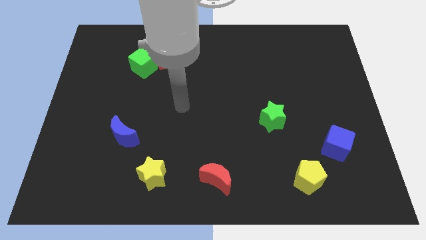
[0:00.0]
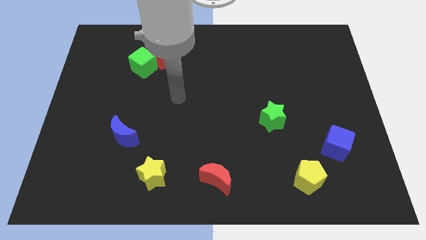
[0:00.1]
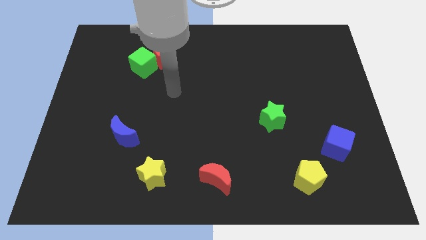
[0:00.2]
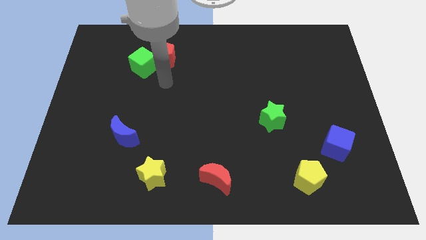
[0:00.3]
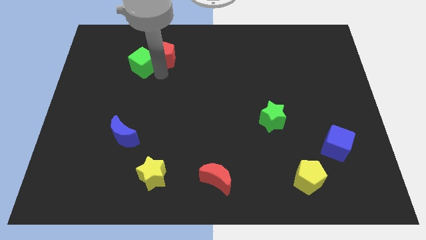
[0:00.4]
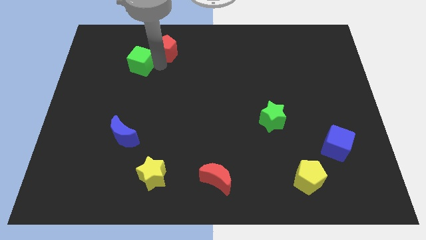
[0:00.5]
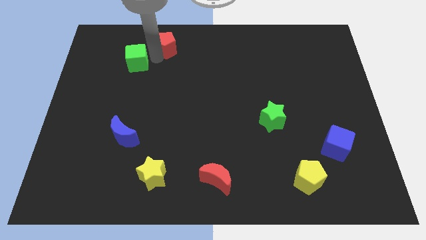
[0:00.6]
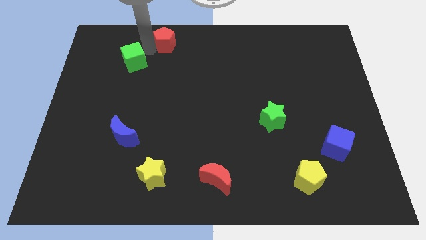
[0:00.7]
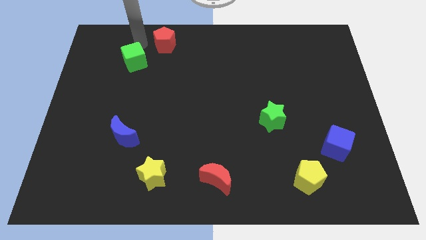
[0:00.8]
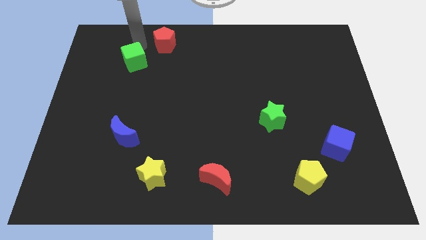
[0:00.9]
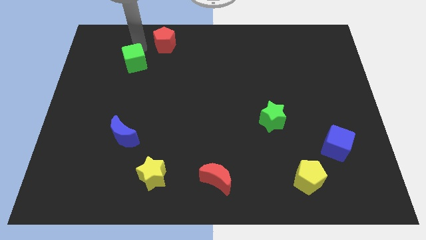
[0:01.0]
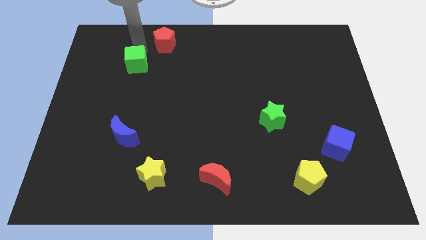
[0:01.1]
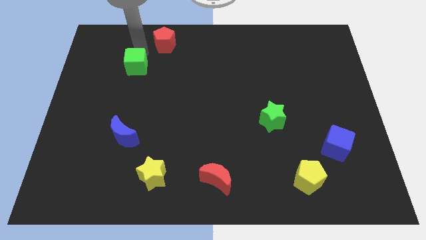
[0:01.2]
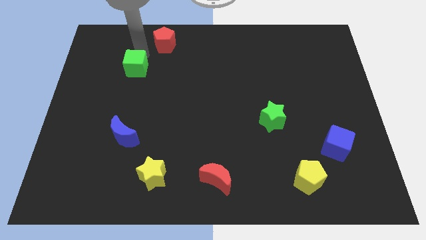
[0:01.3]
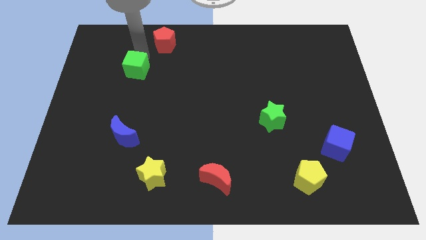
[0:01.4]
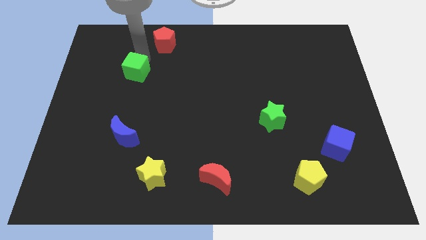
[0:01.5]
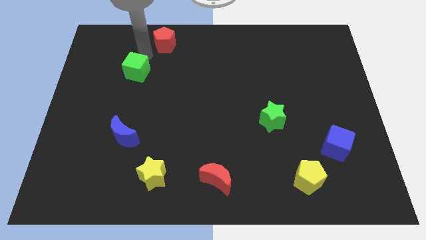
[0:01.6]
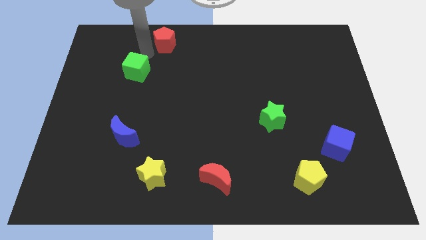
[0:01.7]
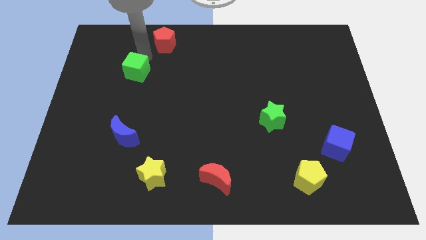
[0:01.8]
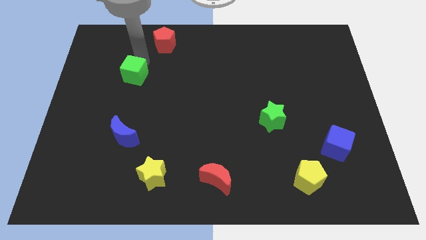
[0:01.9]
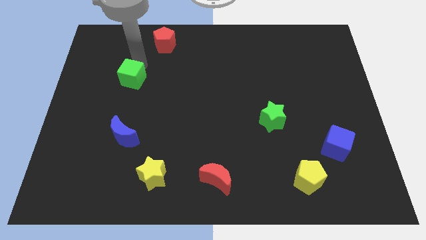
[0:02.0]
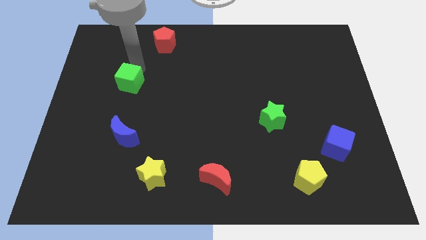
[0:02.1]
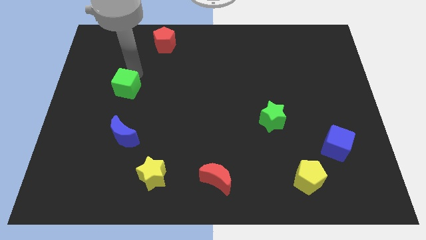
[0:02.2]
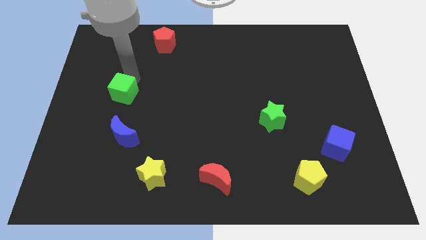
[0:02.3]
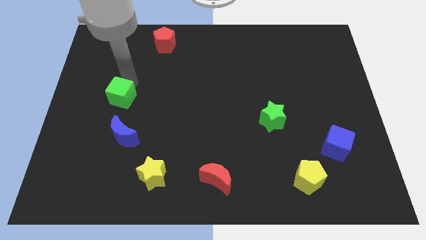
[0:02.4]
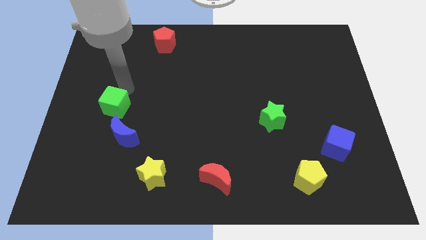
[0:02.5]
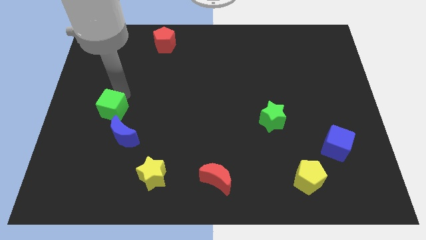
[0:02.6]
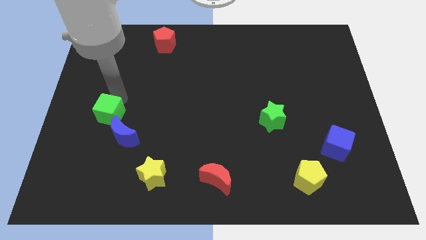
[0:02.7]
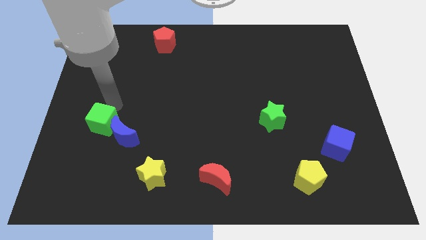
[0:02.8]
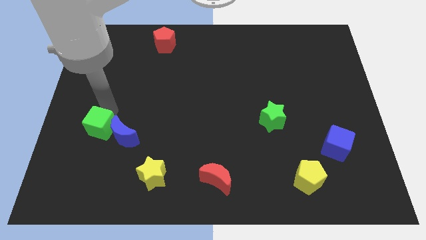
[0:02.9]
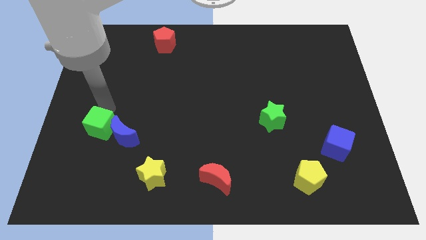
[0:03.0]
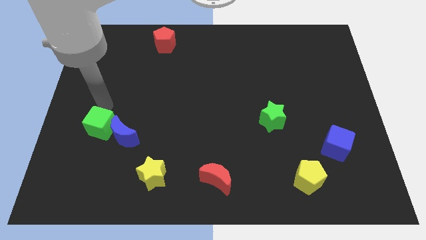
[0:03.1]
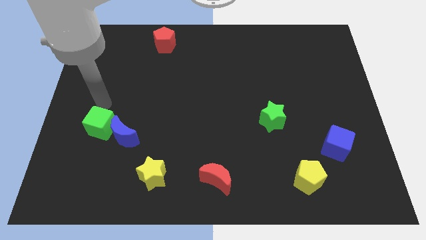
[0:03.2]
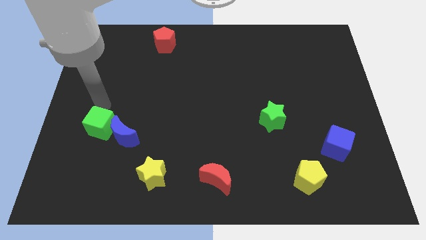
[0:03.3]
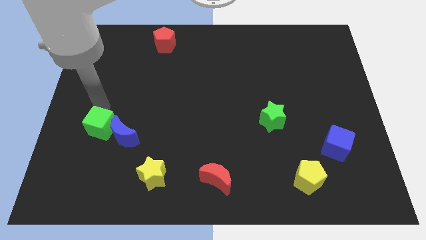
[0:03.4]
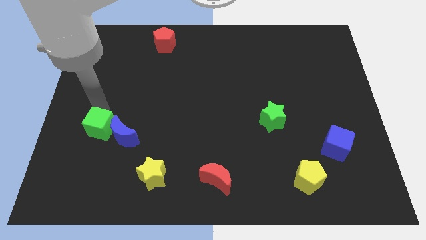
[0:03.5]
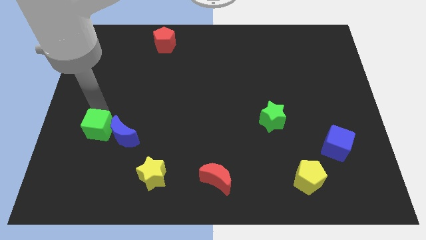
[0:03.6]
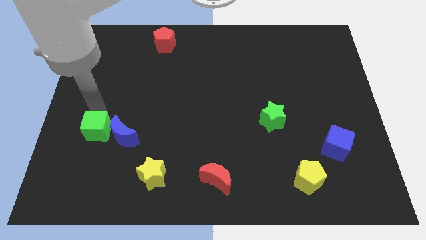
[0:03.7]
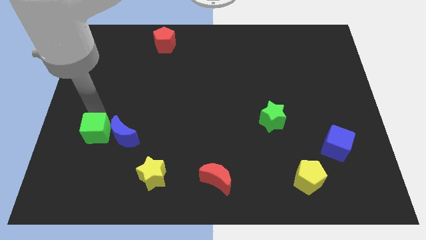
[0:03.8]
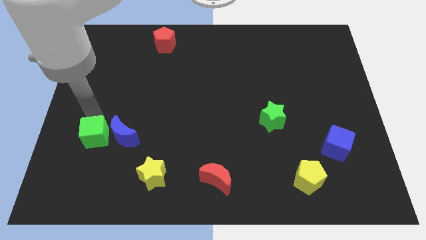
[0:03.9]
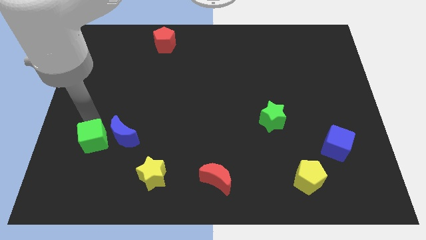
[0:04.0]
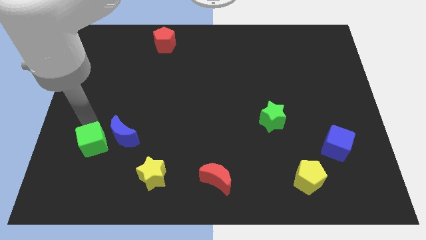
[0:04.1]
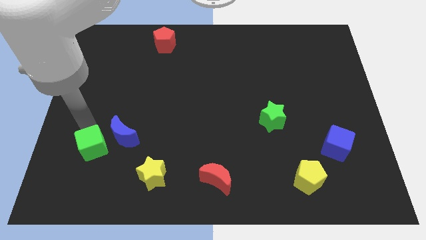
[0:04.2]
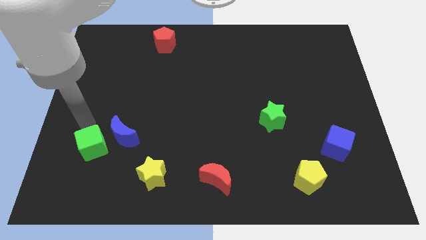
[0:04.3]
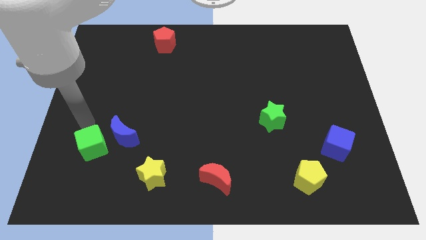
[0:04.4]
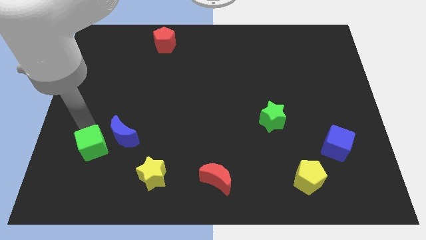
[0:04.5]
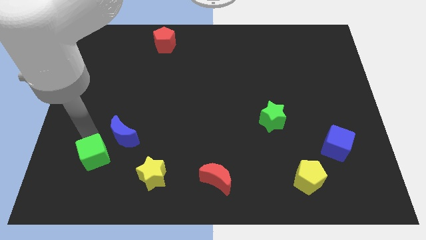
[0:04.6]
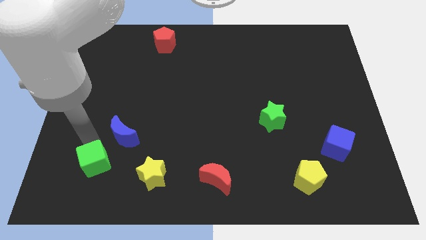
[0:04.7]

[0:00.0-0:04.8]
slide the green cube to the left of the yellow star

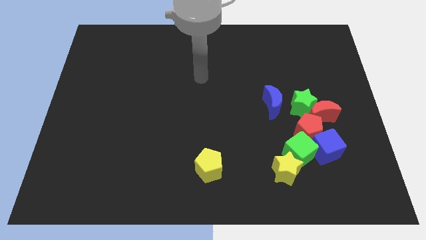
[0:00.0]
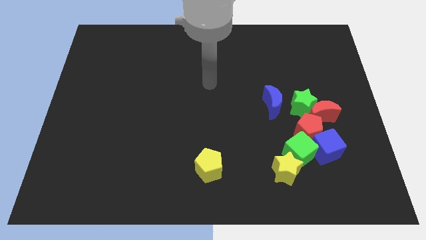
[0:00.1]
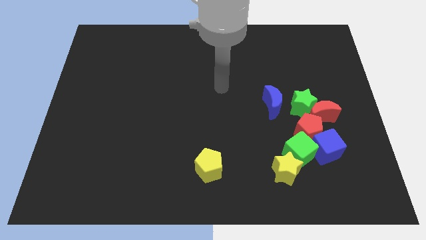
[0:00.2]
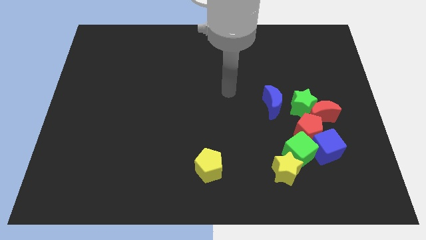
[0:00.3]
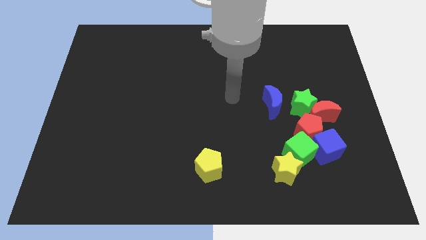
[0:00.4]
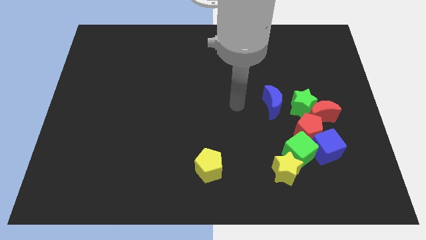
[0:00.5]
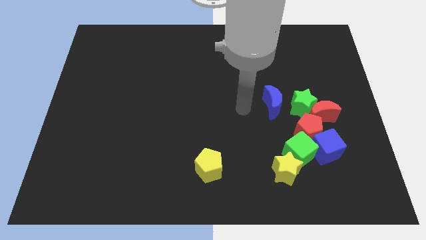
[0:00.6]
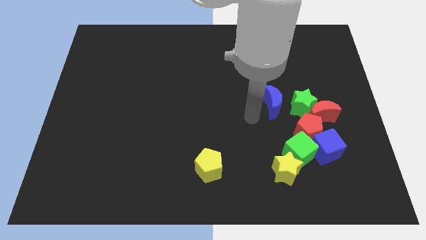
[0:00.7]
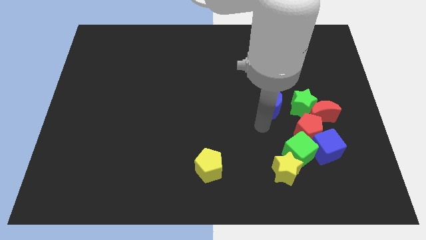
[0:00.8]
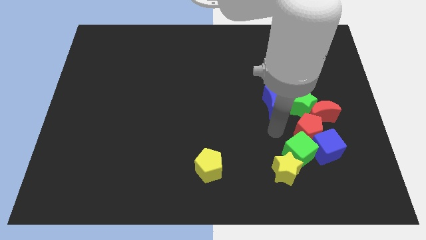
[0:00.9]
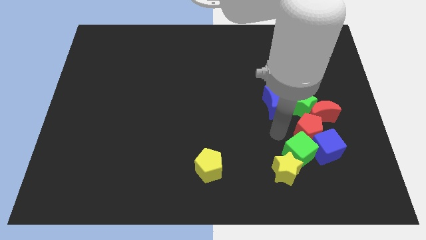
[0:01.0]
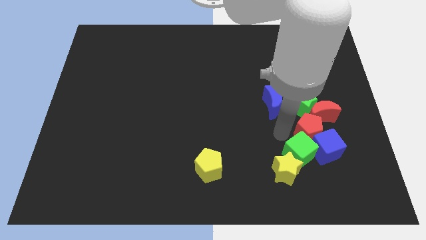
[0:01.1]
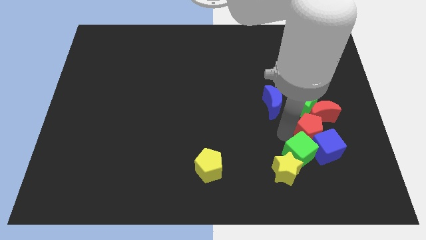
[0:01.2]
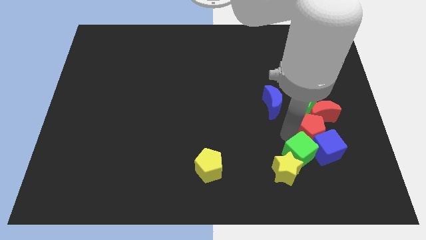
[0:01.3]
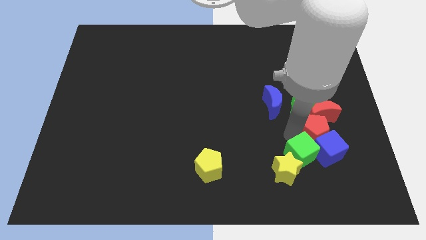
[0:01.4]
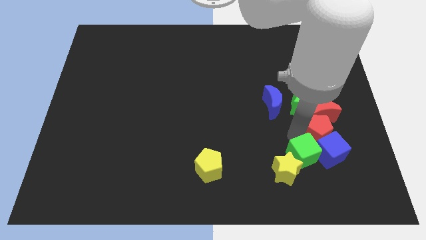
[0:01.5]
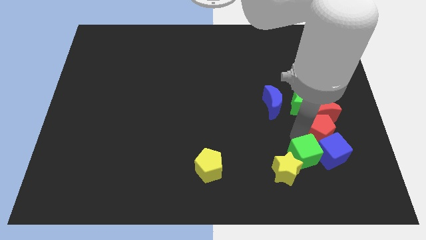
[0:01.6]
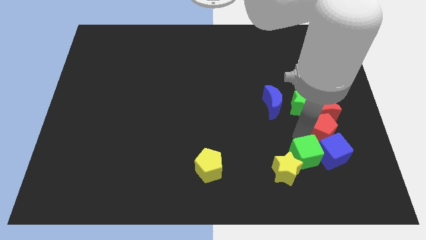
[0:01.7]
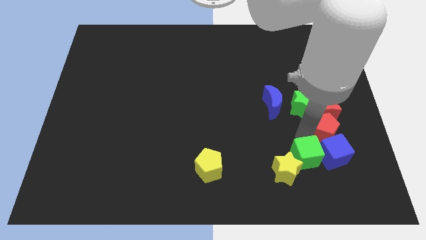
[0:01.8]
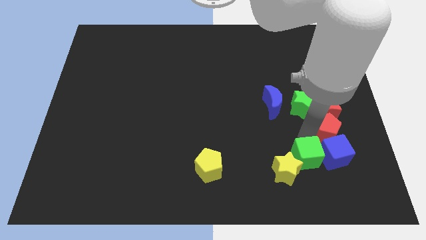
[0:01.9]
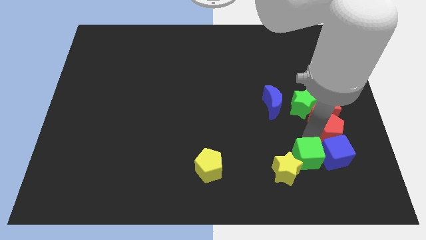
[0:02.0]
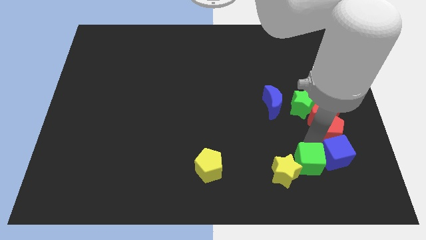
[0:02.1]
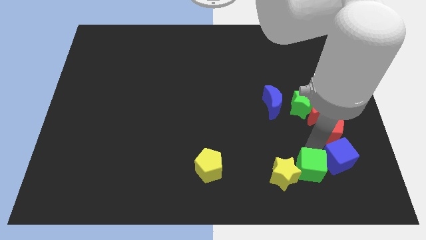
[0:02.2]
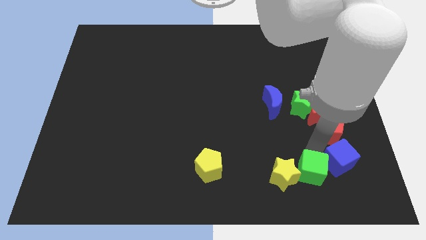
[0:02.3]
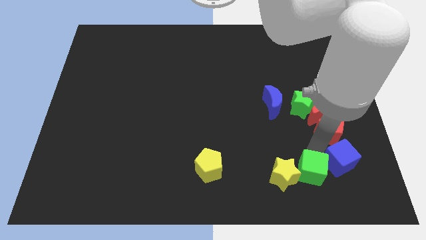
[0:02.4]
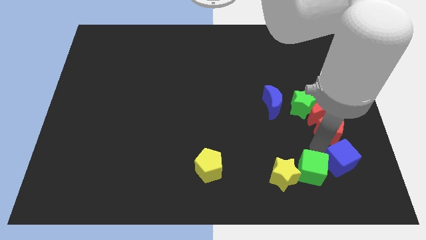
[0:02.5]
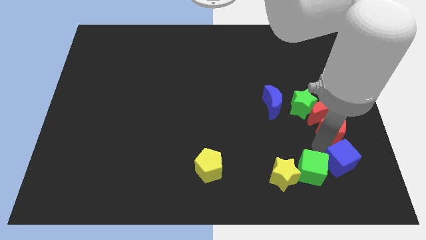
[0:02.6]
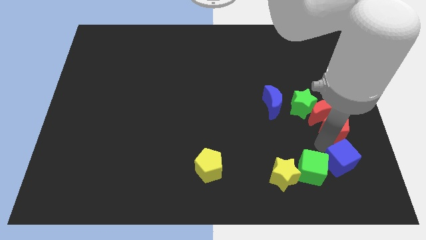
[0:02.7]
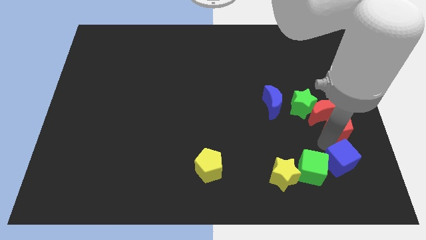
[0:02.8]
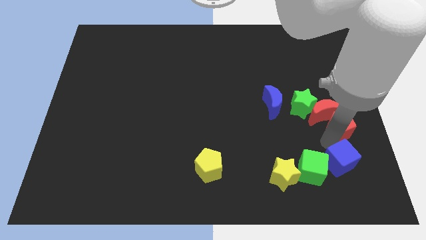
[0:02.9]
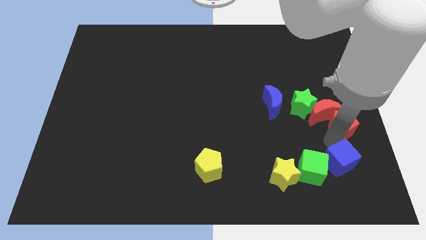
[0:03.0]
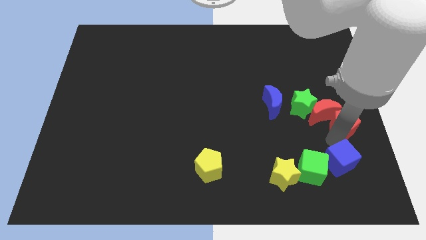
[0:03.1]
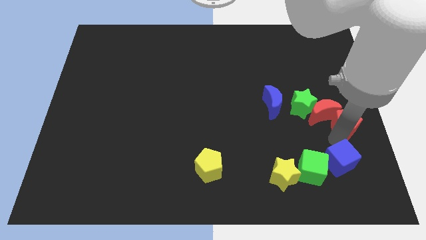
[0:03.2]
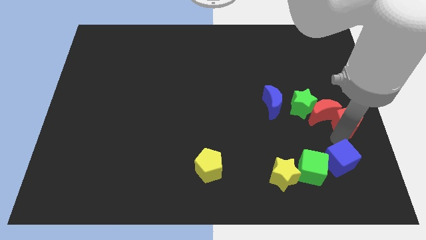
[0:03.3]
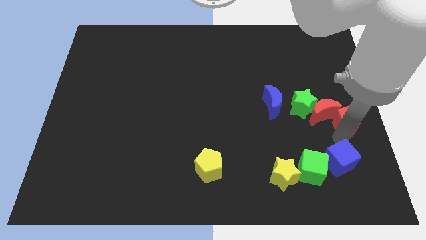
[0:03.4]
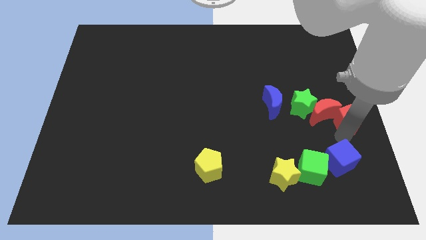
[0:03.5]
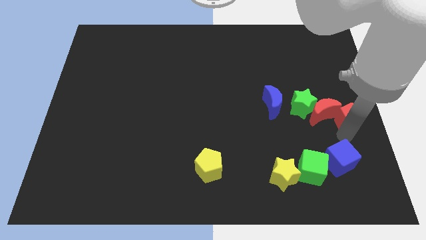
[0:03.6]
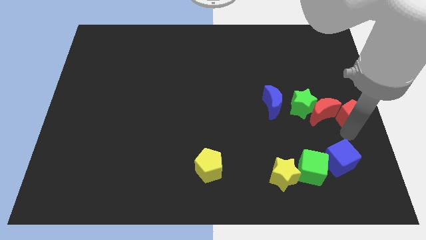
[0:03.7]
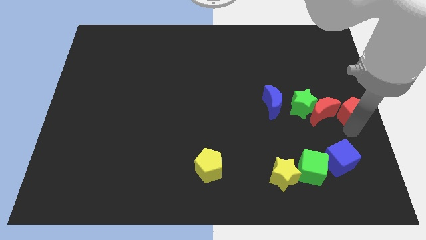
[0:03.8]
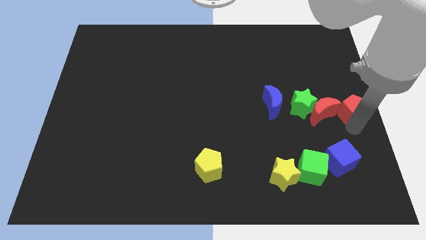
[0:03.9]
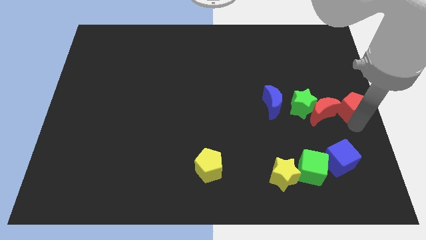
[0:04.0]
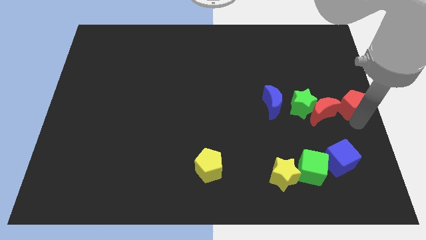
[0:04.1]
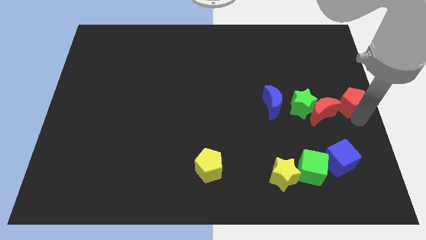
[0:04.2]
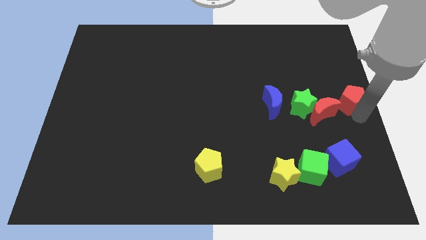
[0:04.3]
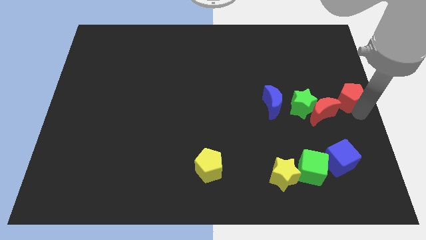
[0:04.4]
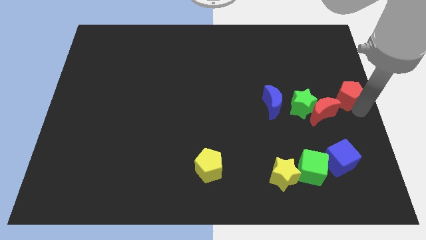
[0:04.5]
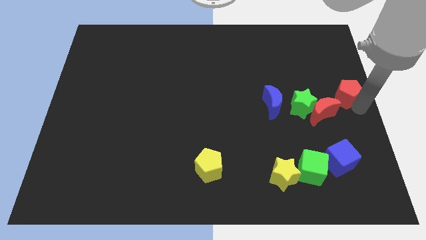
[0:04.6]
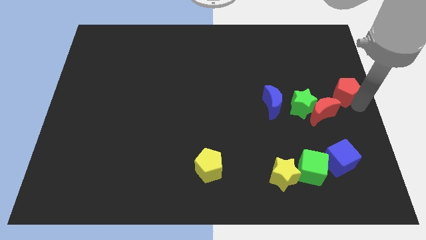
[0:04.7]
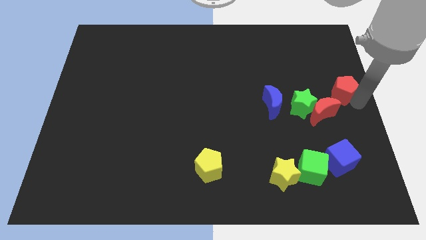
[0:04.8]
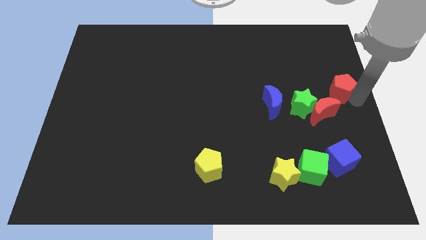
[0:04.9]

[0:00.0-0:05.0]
push the red pentagon to the top right of the green star
